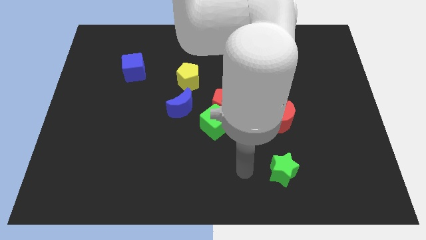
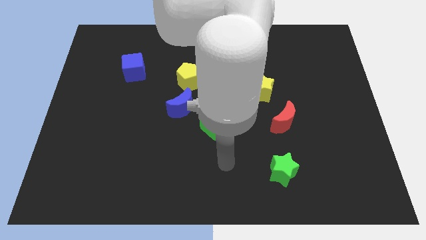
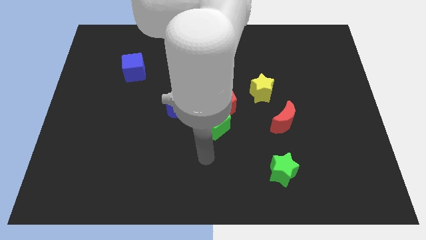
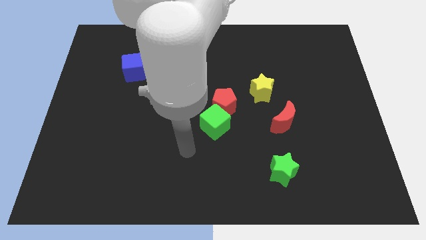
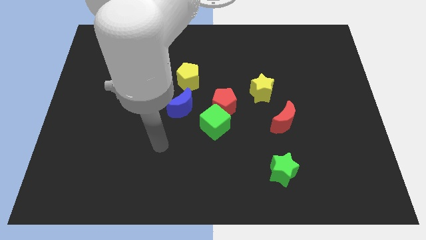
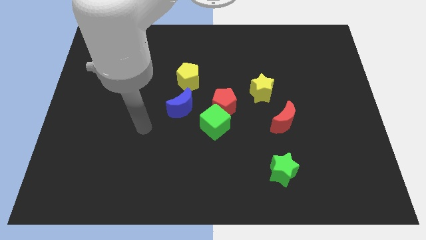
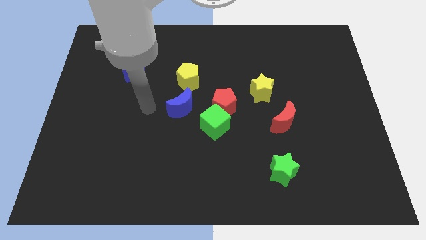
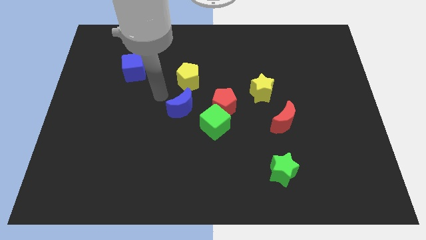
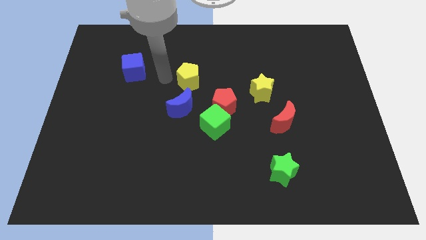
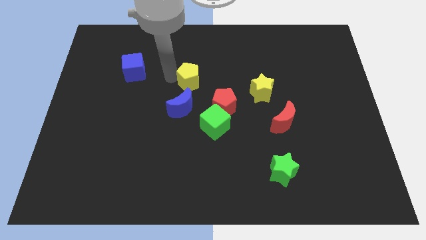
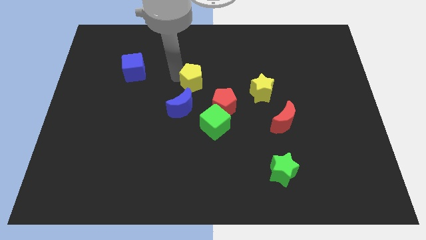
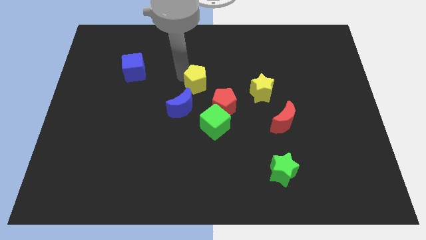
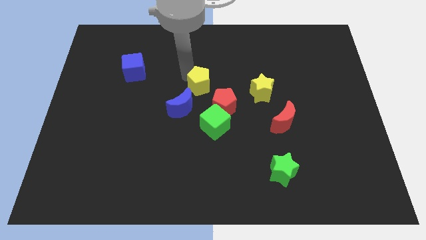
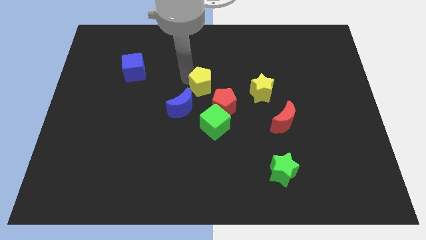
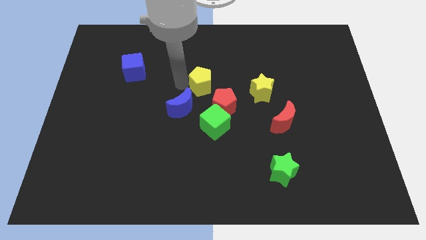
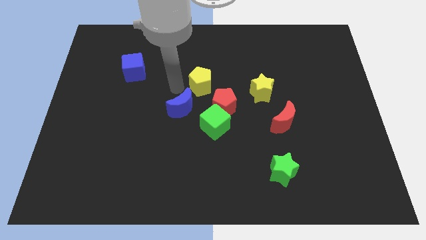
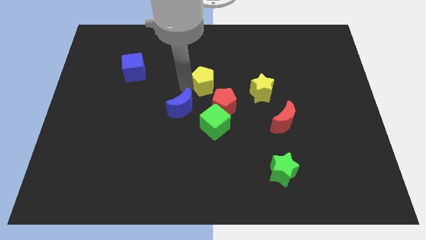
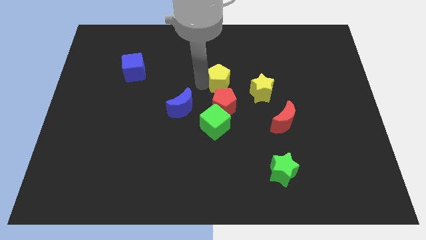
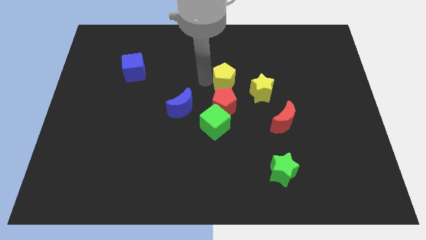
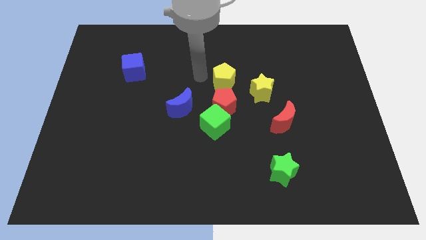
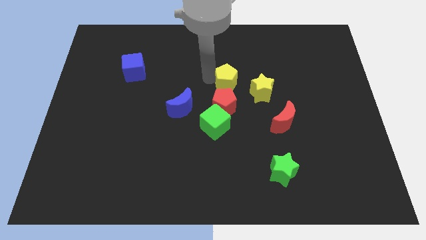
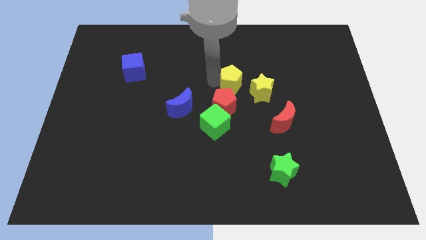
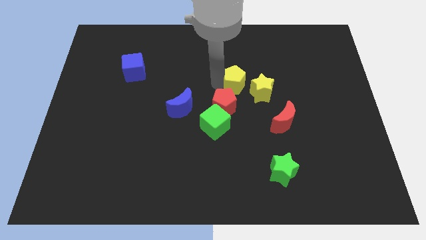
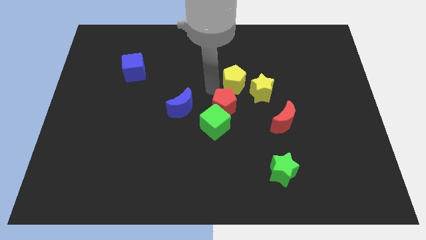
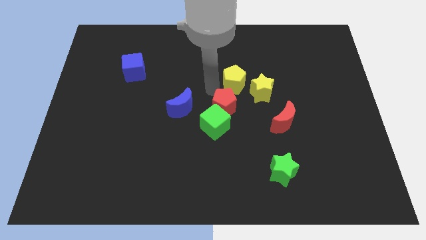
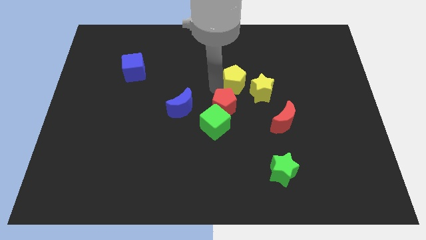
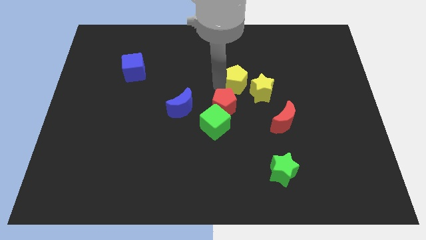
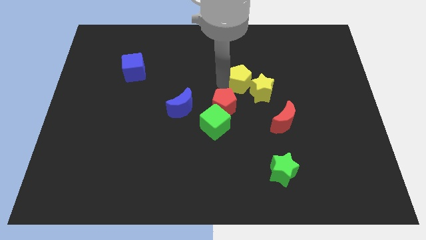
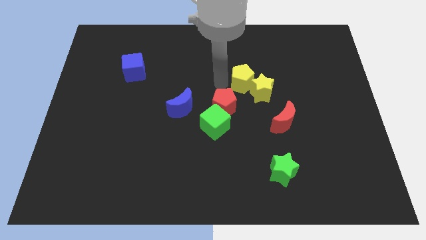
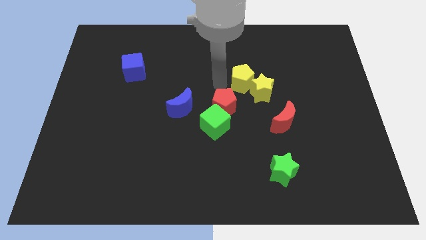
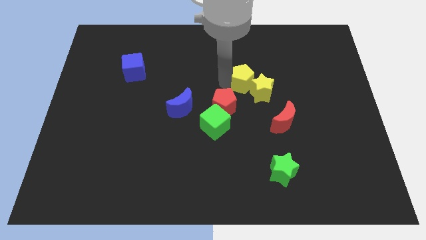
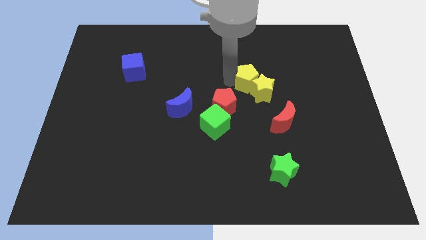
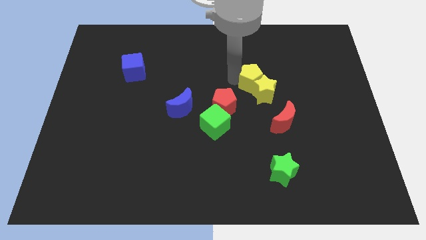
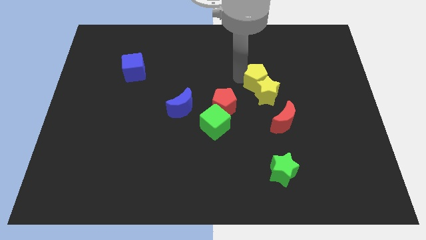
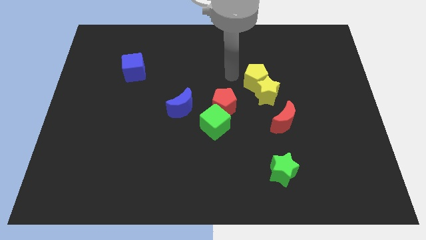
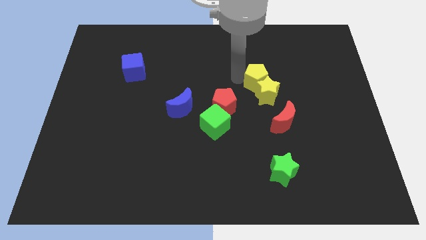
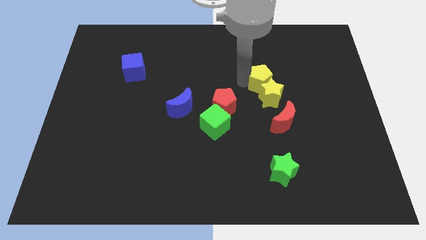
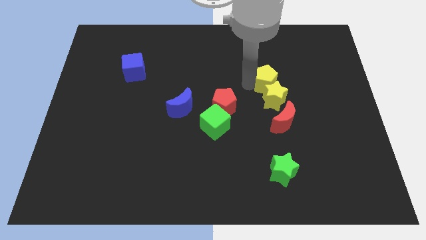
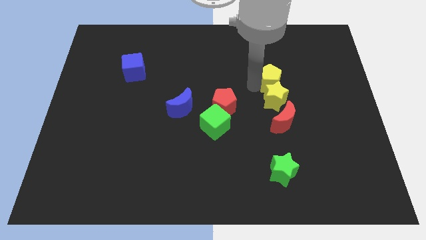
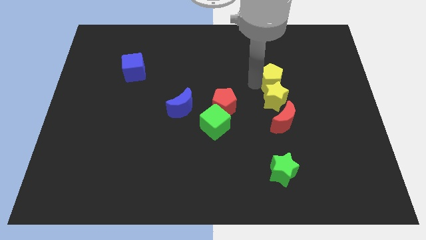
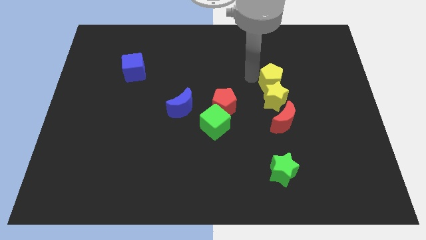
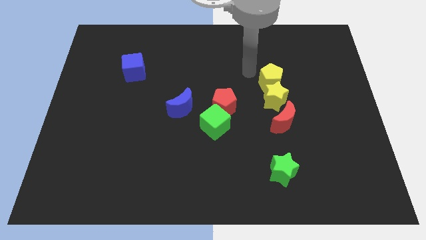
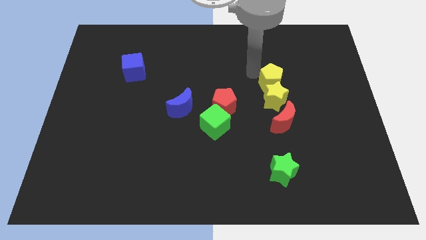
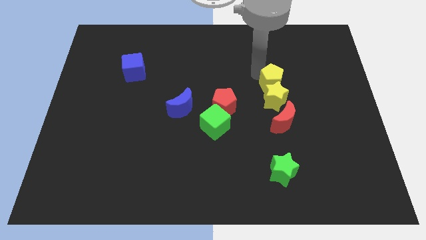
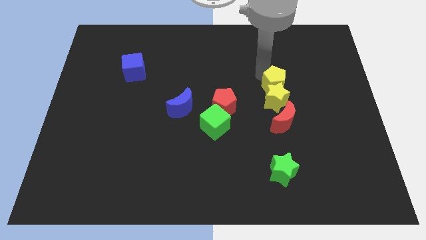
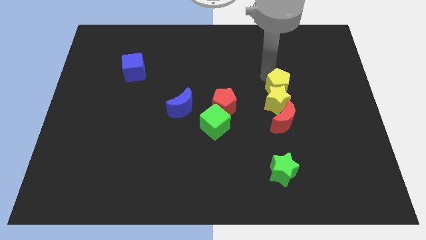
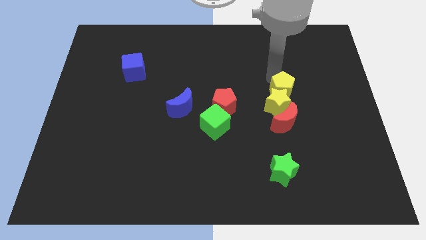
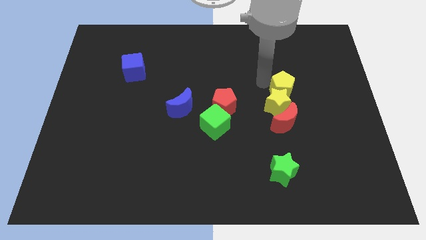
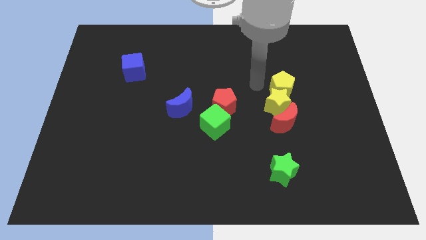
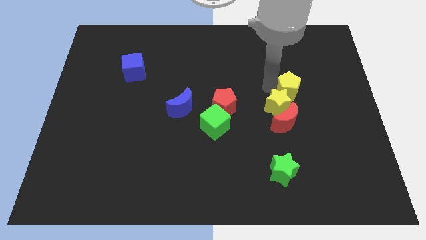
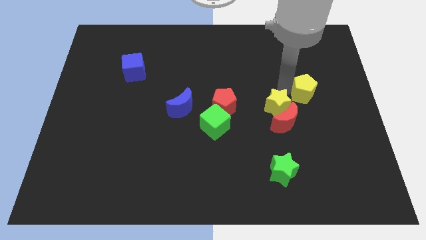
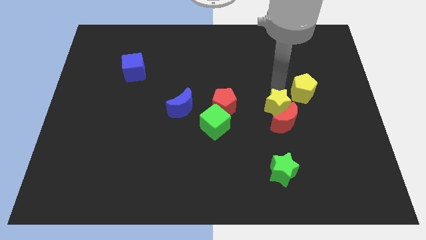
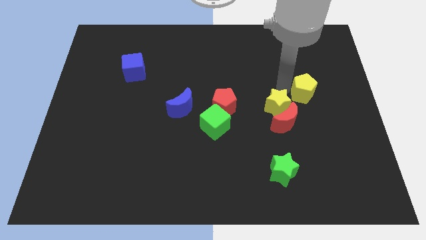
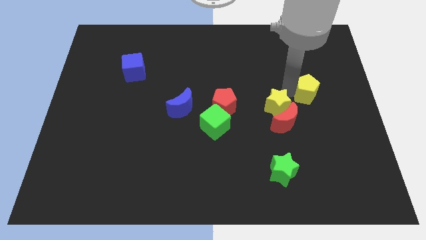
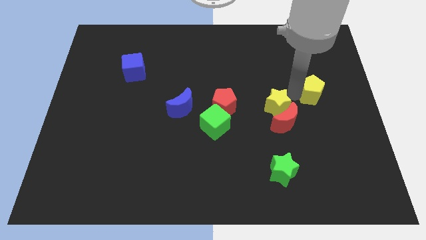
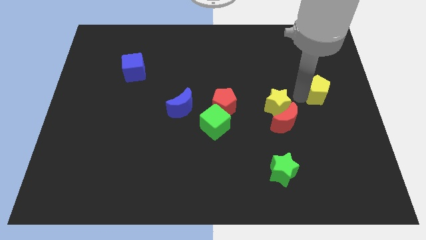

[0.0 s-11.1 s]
push the yellow pentagon to the right side of the board
